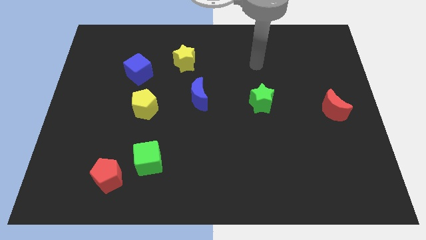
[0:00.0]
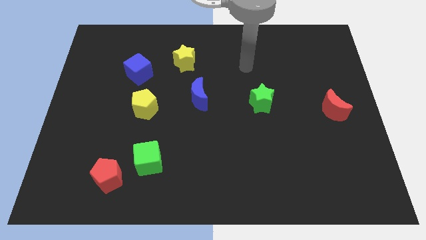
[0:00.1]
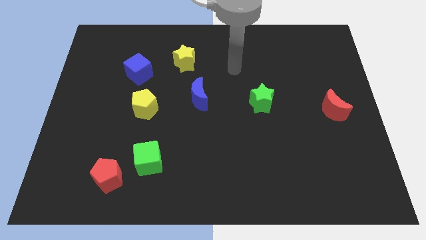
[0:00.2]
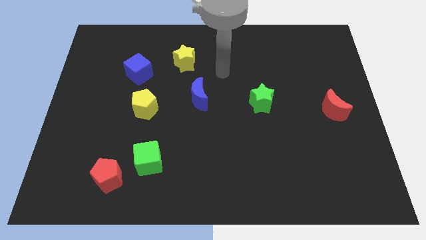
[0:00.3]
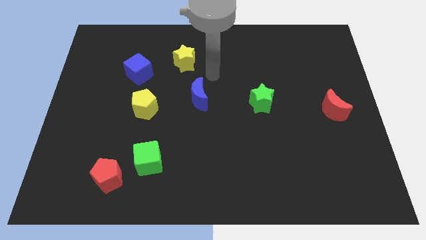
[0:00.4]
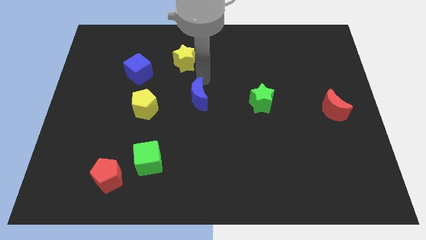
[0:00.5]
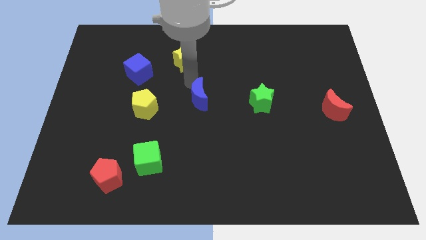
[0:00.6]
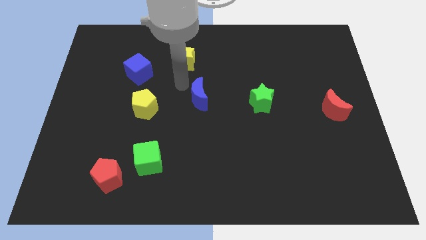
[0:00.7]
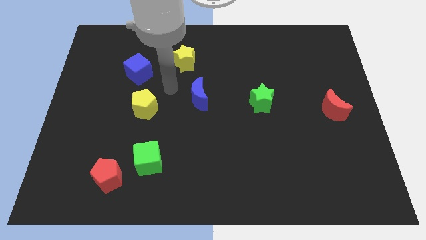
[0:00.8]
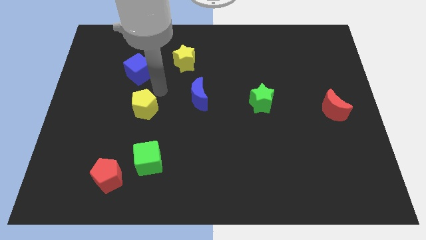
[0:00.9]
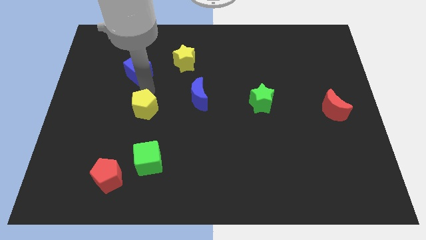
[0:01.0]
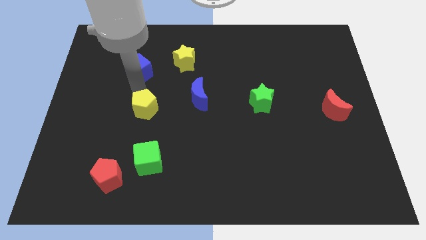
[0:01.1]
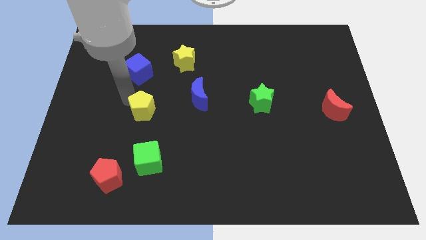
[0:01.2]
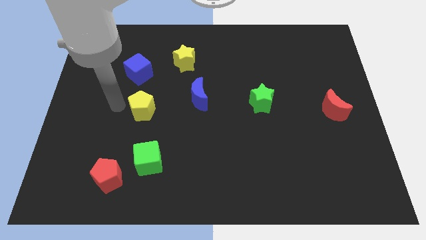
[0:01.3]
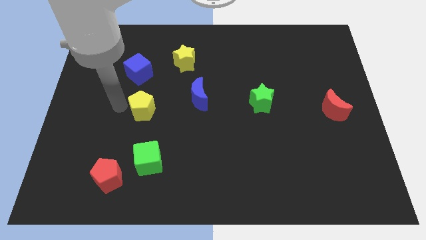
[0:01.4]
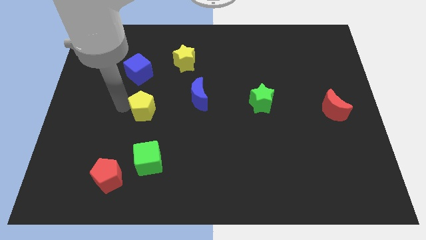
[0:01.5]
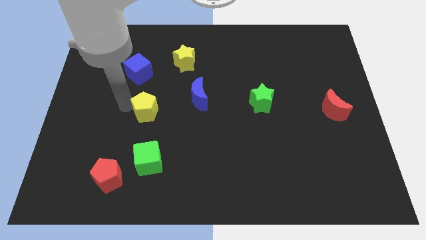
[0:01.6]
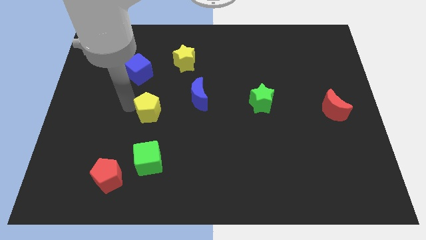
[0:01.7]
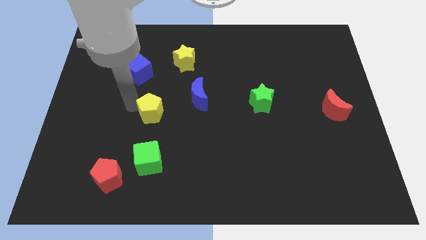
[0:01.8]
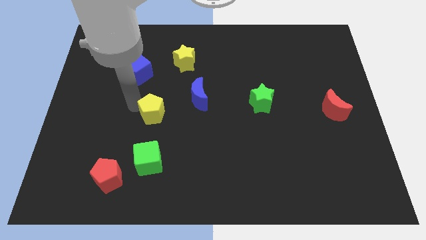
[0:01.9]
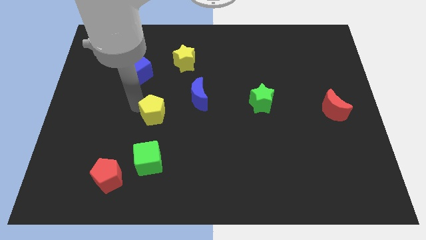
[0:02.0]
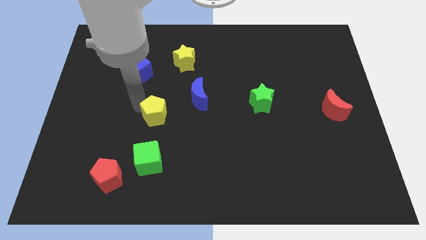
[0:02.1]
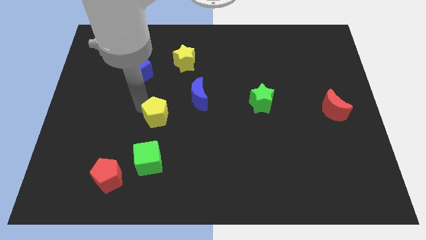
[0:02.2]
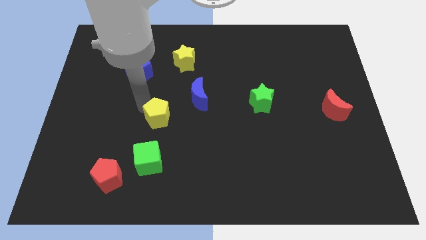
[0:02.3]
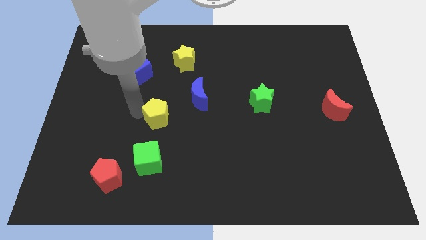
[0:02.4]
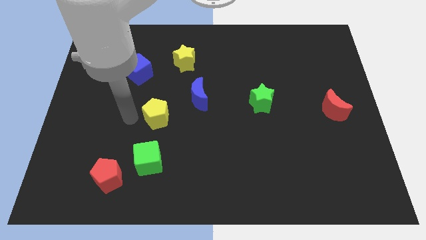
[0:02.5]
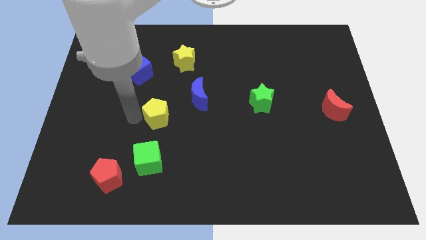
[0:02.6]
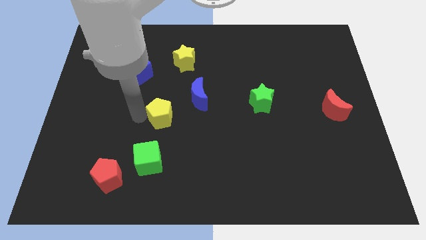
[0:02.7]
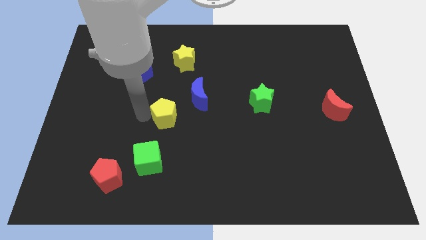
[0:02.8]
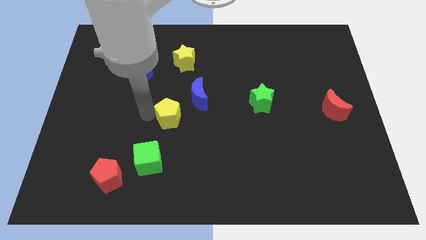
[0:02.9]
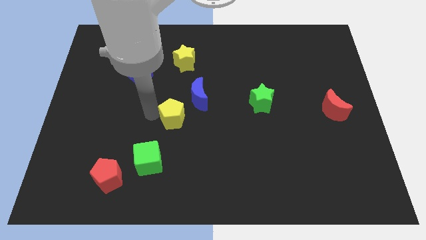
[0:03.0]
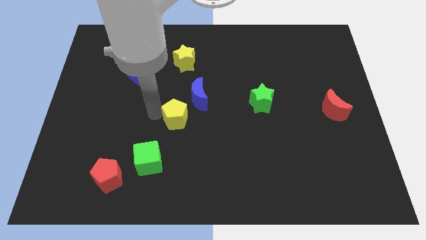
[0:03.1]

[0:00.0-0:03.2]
push the yellow pentagon a bit right

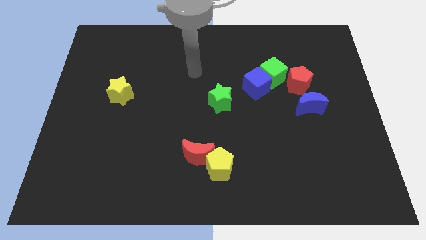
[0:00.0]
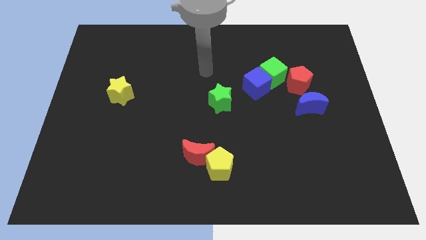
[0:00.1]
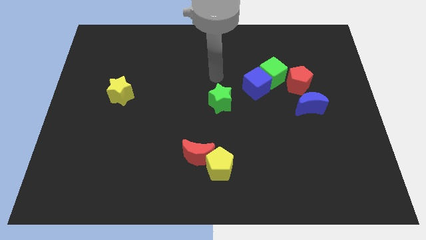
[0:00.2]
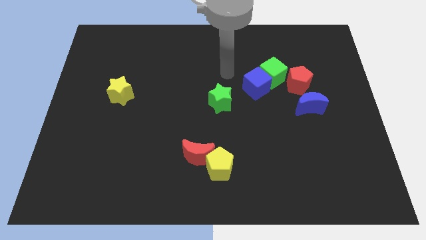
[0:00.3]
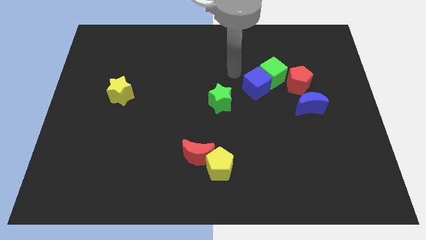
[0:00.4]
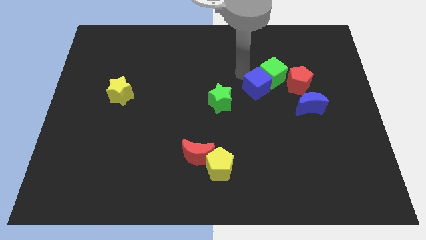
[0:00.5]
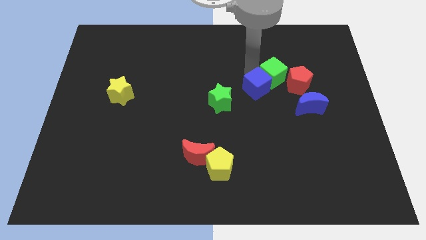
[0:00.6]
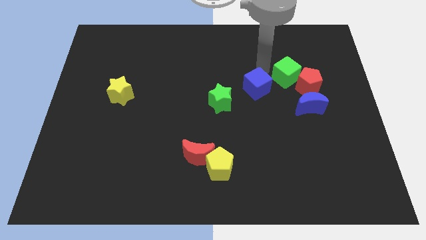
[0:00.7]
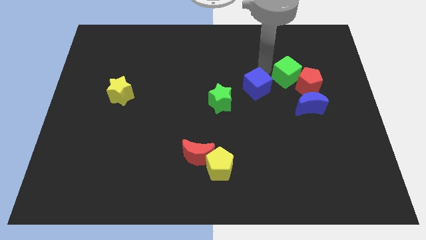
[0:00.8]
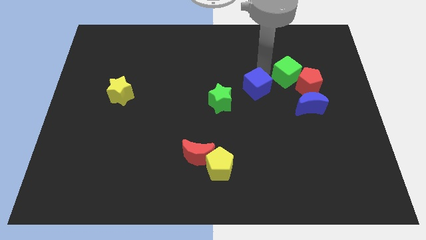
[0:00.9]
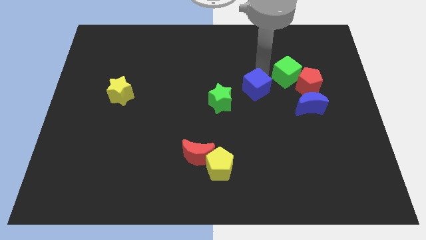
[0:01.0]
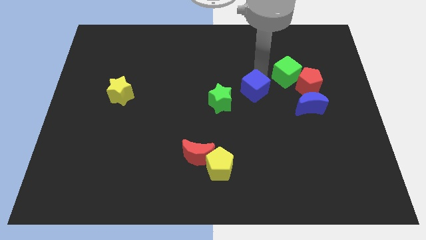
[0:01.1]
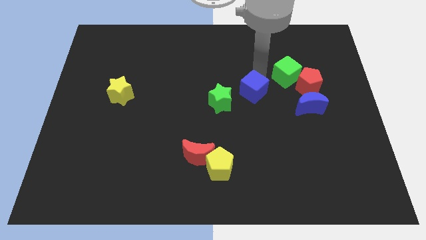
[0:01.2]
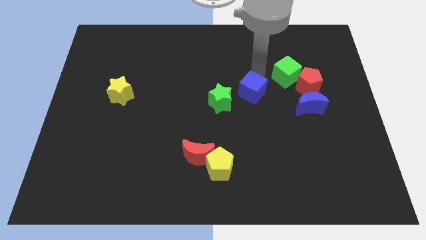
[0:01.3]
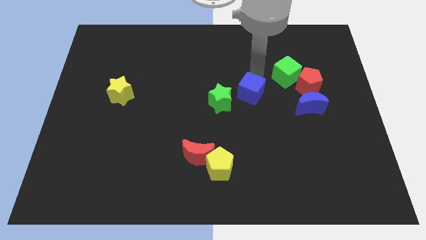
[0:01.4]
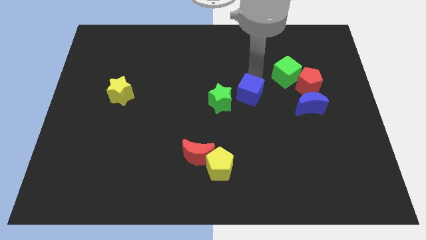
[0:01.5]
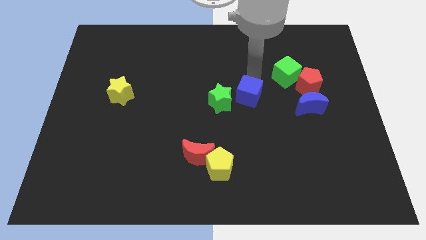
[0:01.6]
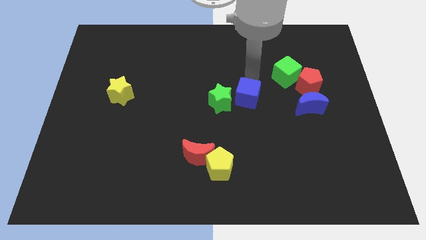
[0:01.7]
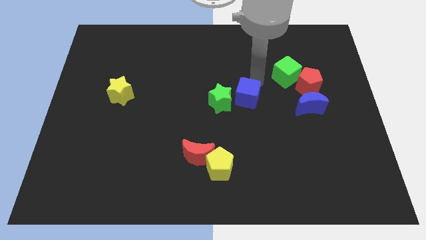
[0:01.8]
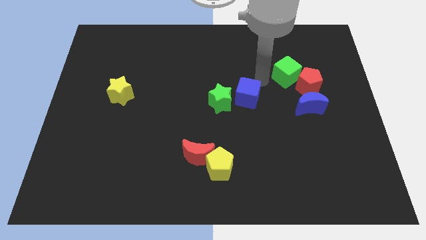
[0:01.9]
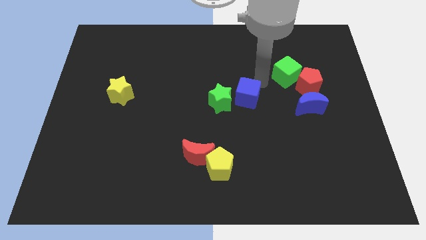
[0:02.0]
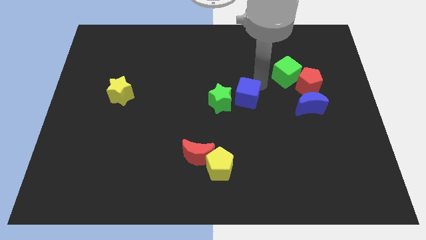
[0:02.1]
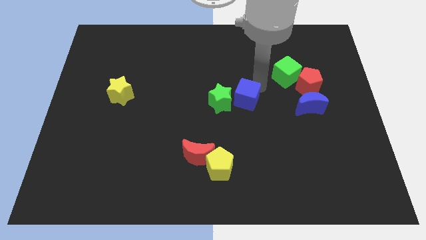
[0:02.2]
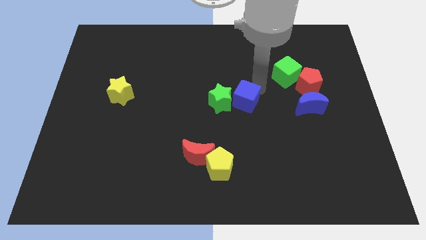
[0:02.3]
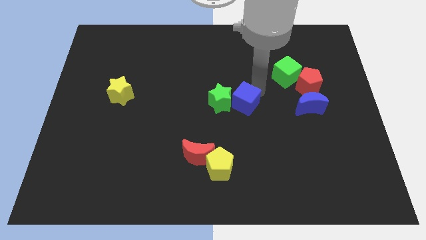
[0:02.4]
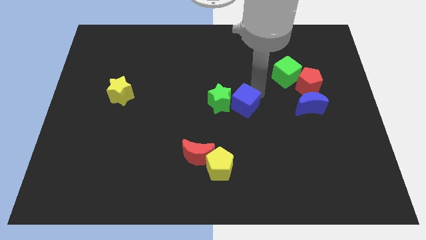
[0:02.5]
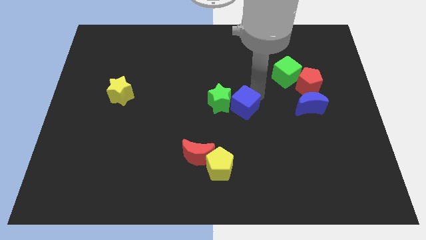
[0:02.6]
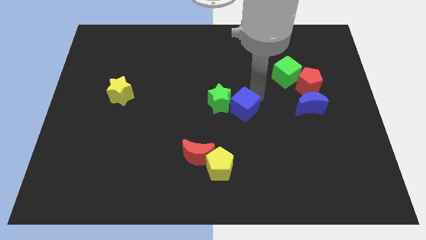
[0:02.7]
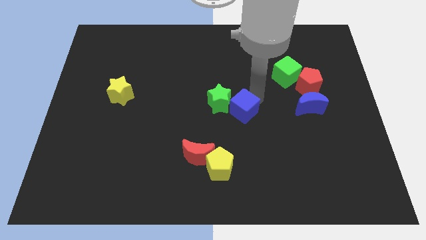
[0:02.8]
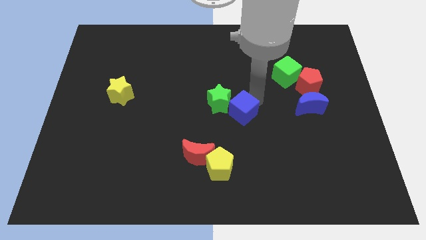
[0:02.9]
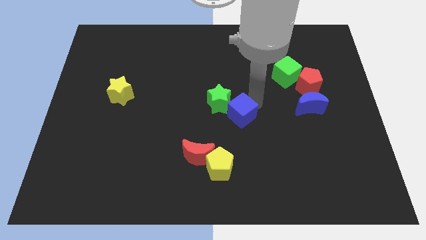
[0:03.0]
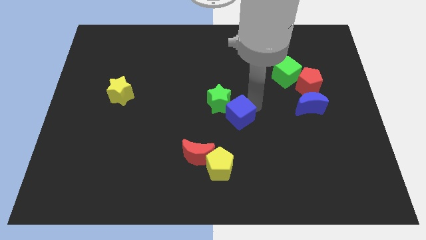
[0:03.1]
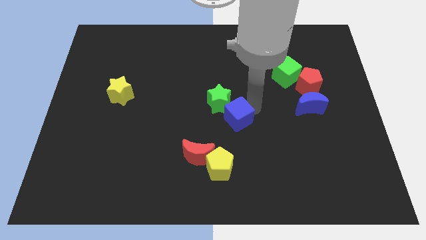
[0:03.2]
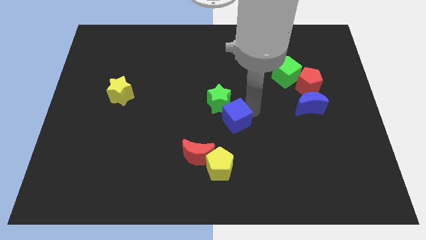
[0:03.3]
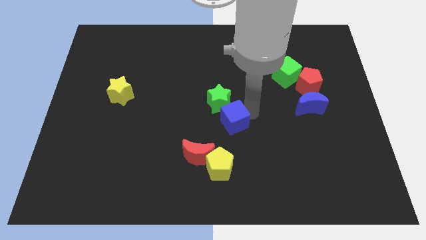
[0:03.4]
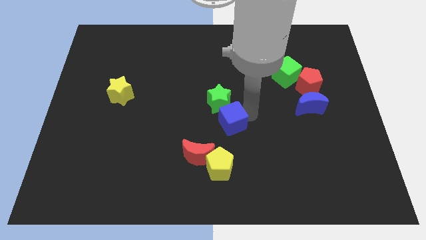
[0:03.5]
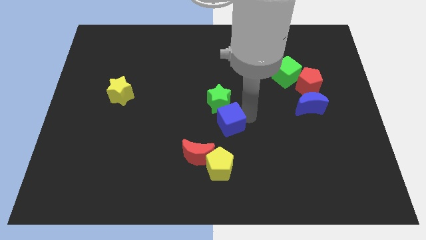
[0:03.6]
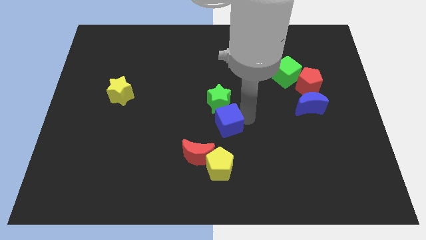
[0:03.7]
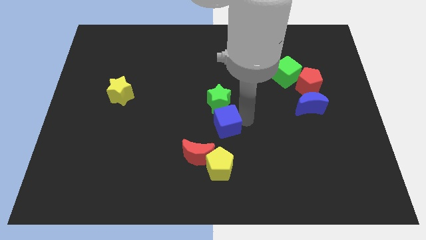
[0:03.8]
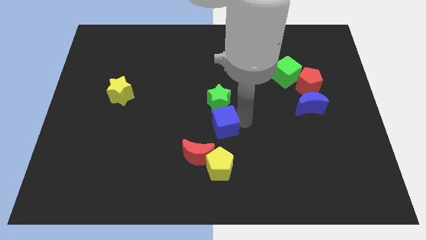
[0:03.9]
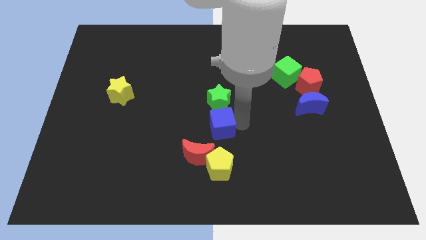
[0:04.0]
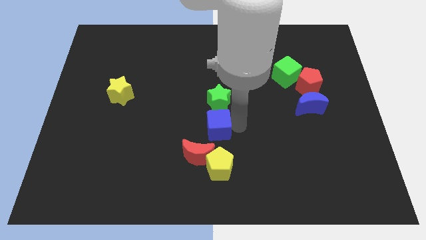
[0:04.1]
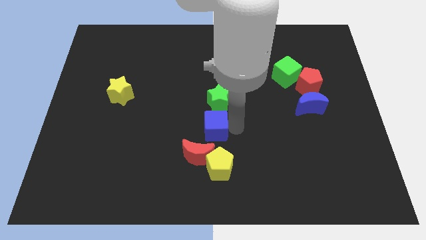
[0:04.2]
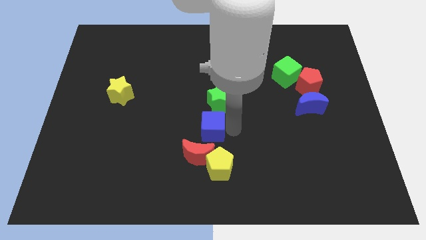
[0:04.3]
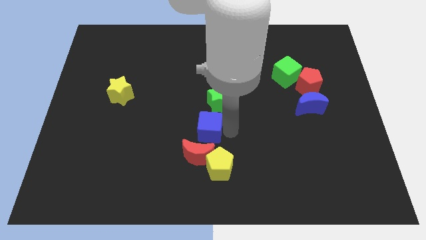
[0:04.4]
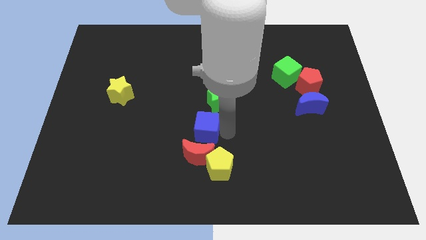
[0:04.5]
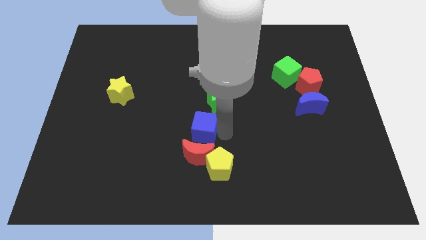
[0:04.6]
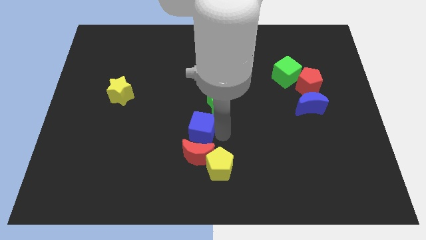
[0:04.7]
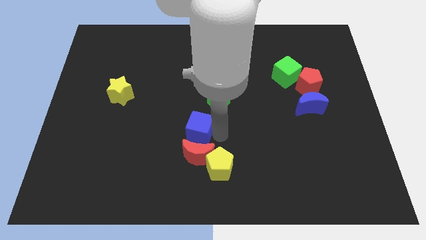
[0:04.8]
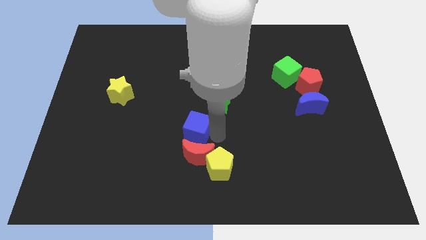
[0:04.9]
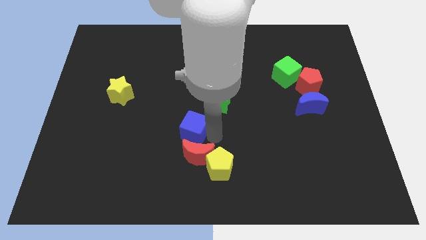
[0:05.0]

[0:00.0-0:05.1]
move the blue cube diagonally down and to the left

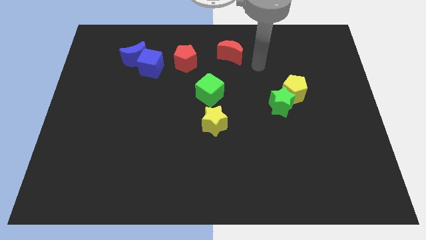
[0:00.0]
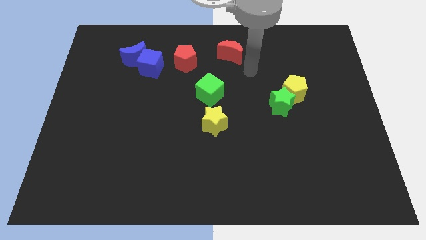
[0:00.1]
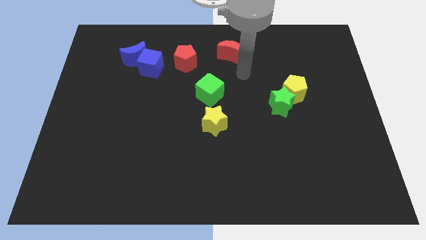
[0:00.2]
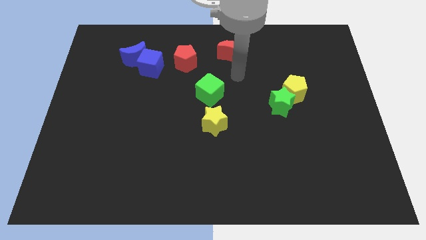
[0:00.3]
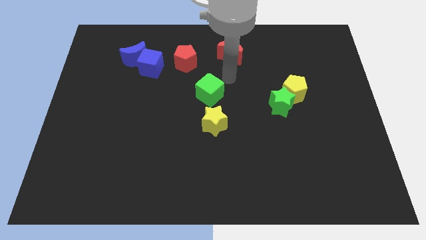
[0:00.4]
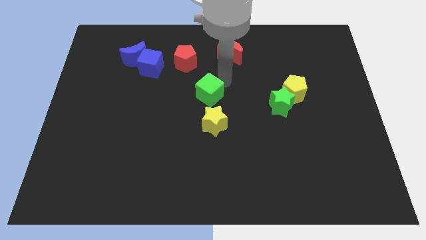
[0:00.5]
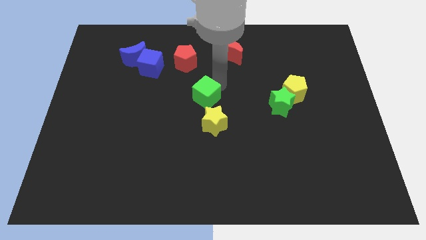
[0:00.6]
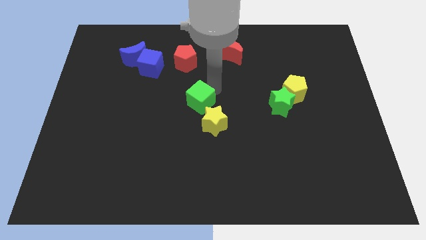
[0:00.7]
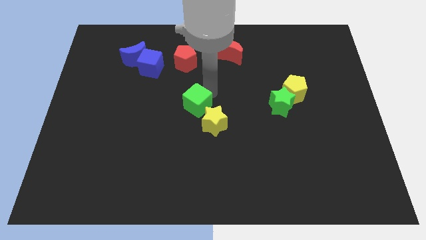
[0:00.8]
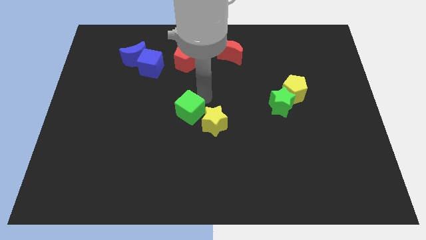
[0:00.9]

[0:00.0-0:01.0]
slightly slide the green cube downwards and then left
